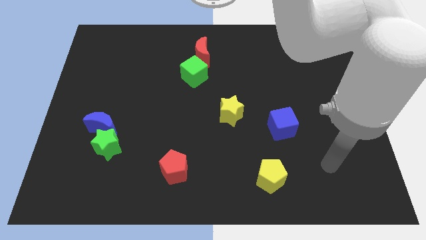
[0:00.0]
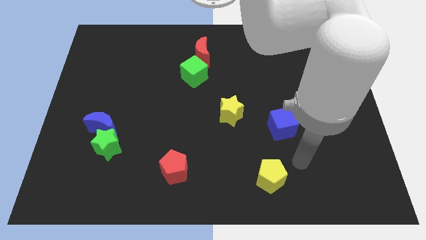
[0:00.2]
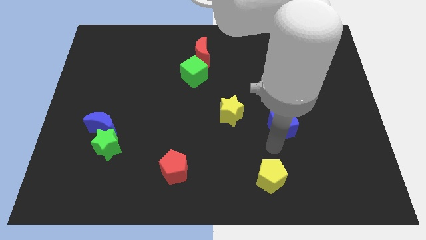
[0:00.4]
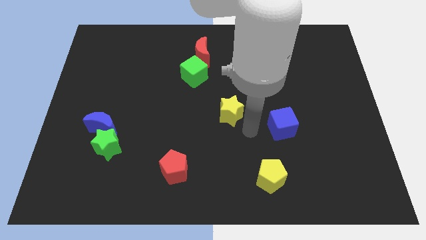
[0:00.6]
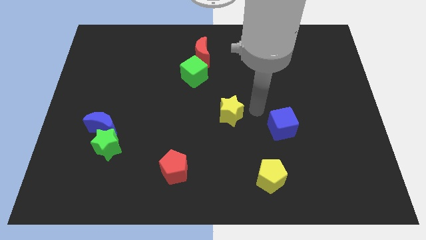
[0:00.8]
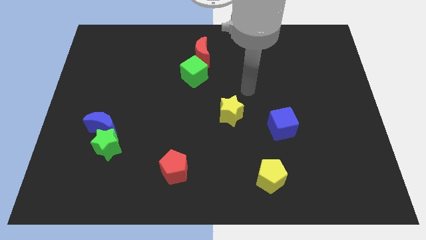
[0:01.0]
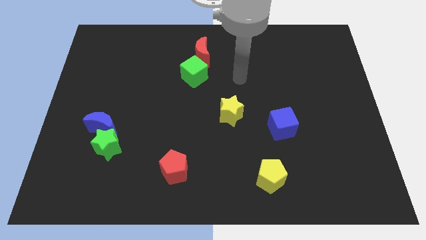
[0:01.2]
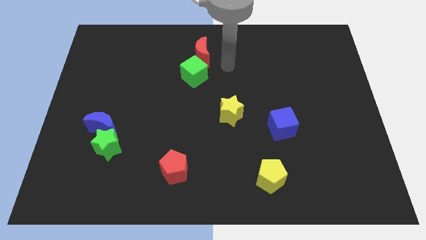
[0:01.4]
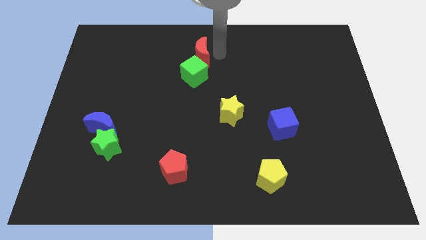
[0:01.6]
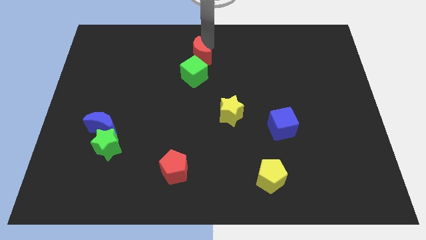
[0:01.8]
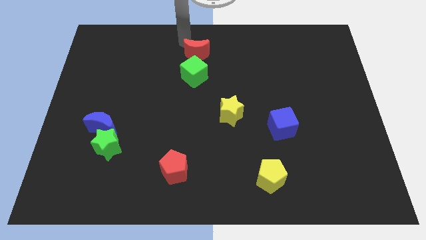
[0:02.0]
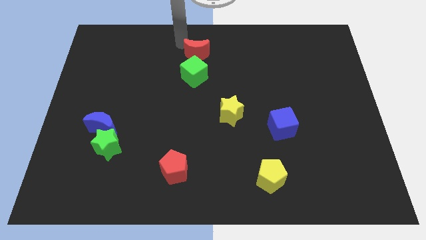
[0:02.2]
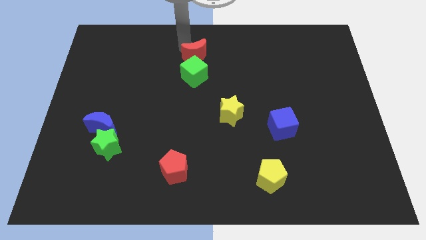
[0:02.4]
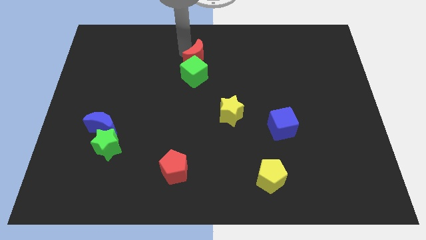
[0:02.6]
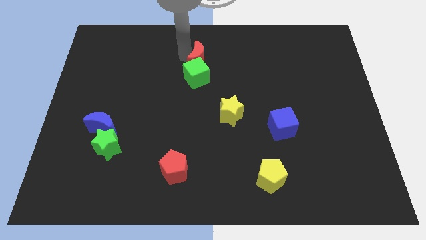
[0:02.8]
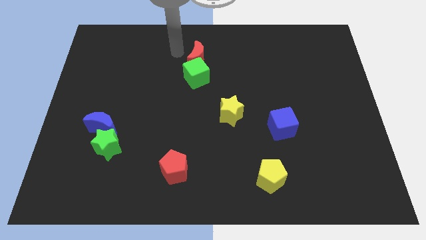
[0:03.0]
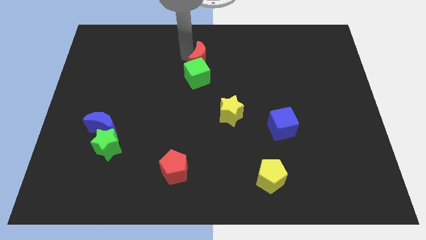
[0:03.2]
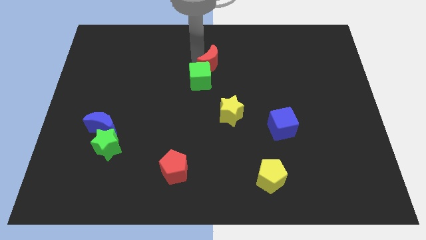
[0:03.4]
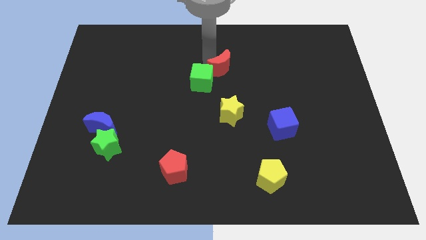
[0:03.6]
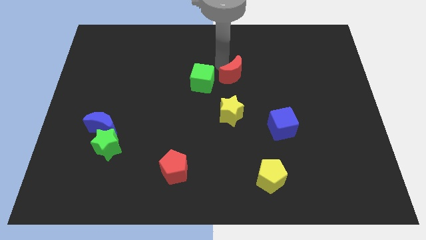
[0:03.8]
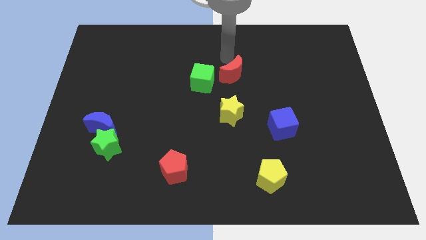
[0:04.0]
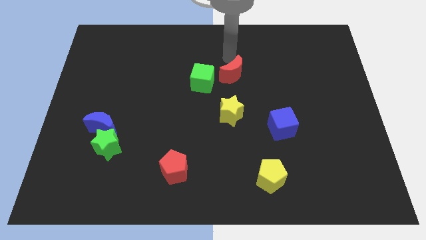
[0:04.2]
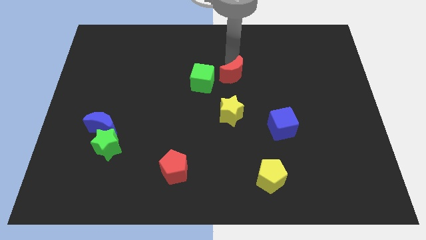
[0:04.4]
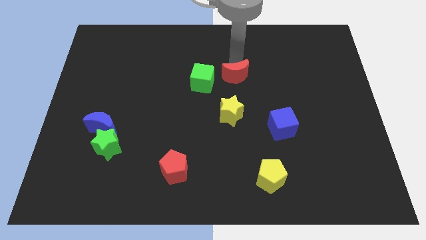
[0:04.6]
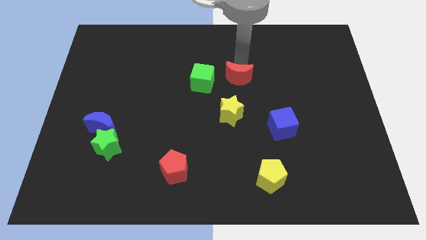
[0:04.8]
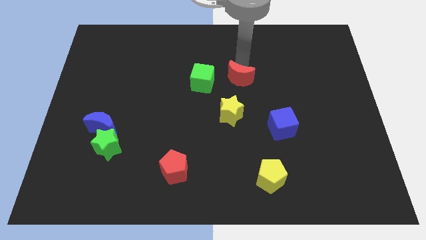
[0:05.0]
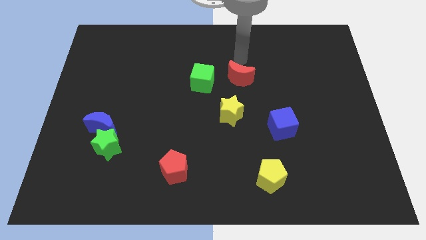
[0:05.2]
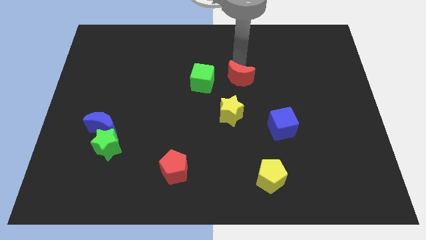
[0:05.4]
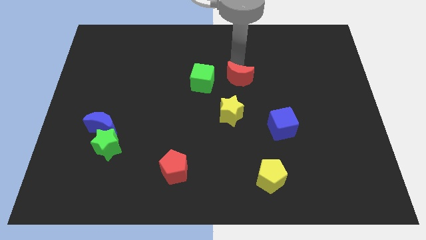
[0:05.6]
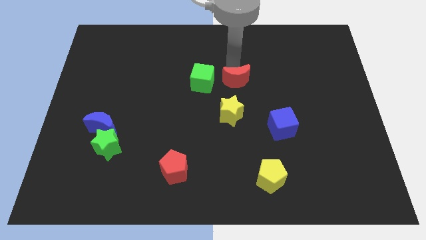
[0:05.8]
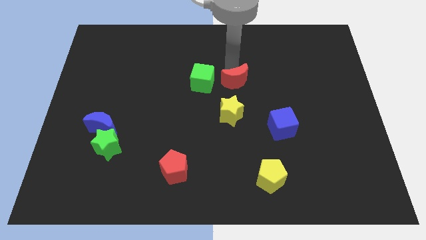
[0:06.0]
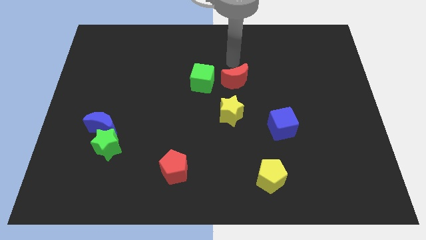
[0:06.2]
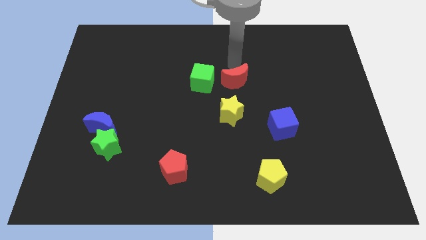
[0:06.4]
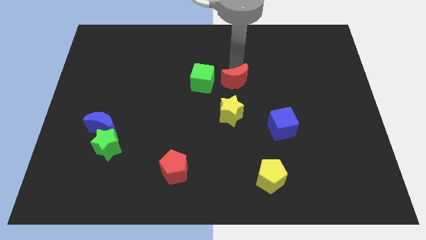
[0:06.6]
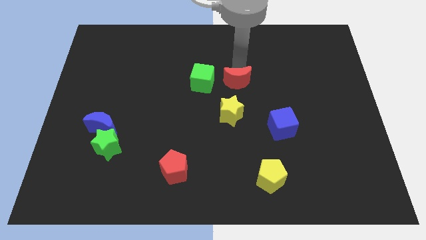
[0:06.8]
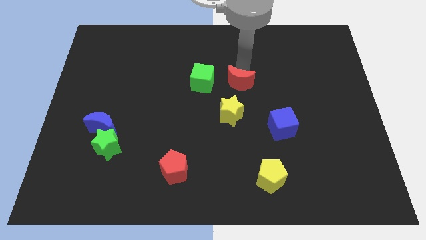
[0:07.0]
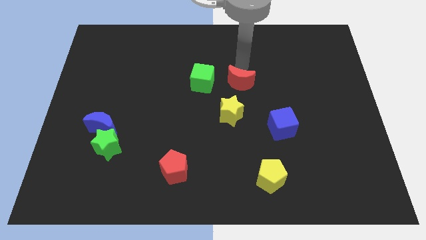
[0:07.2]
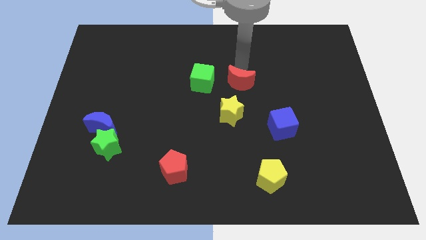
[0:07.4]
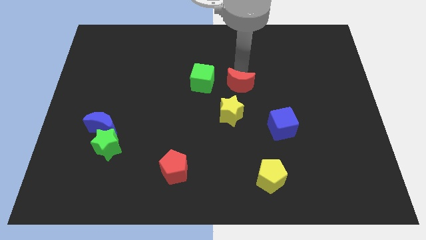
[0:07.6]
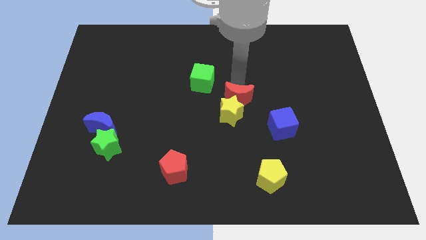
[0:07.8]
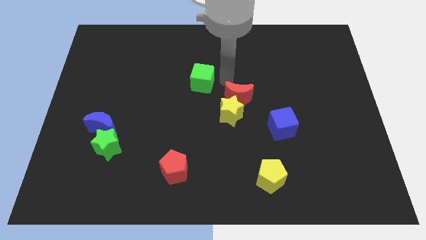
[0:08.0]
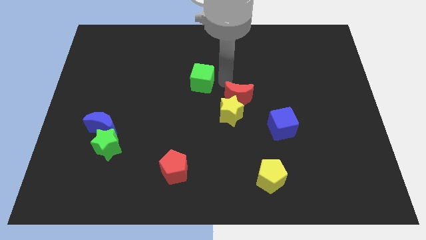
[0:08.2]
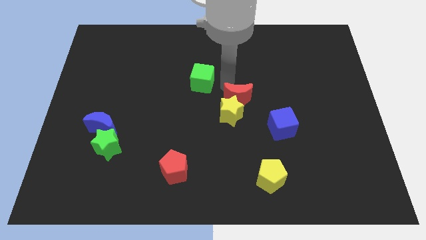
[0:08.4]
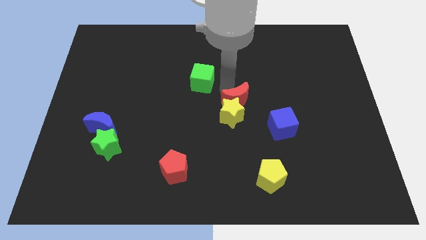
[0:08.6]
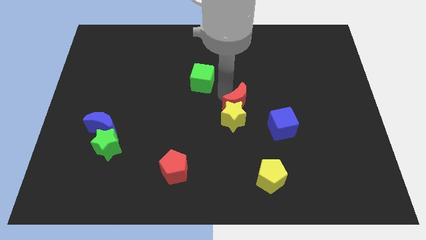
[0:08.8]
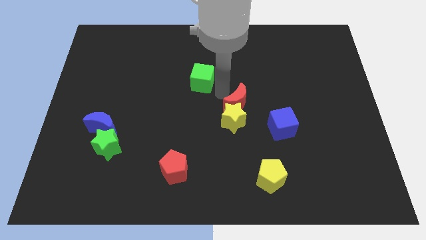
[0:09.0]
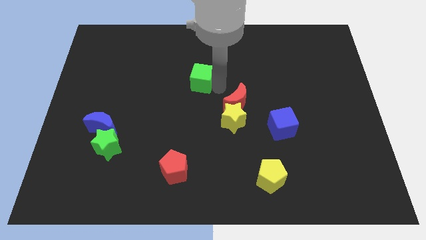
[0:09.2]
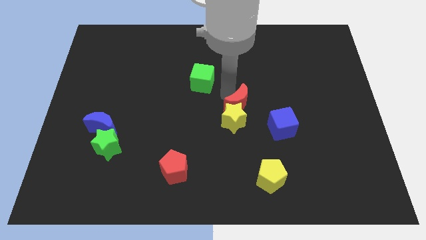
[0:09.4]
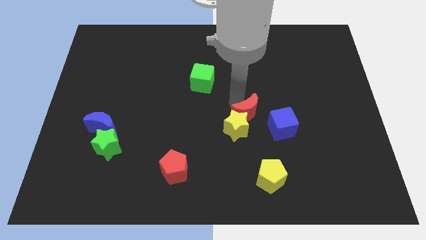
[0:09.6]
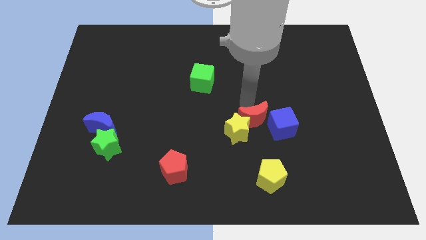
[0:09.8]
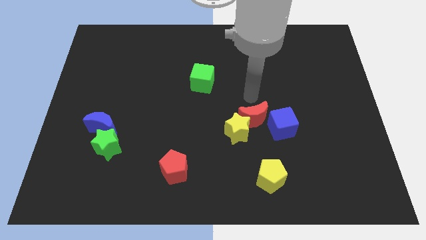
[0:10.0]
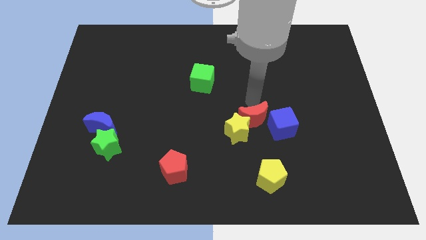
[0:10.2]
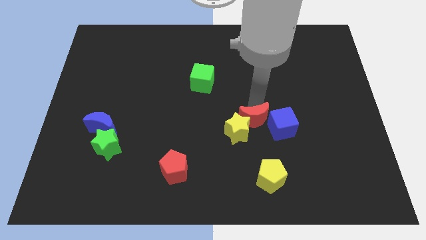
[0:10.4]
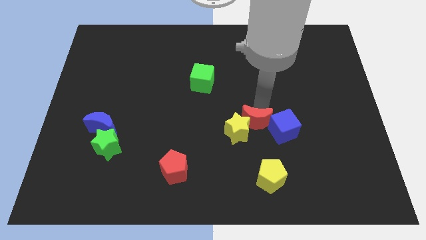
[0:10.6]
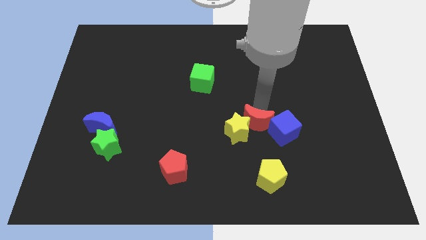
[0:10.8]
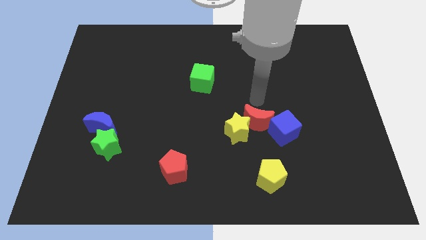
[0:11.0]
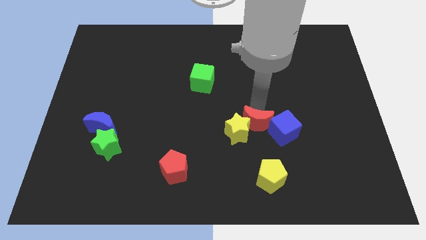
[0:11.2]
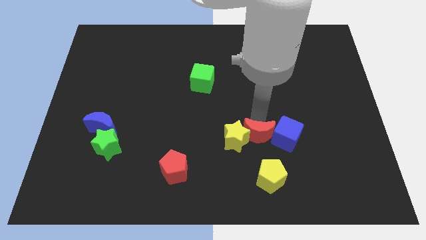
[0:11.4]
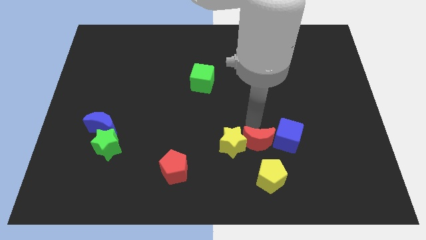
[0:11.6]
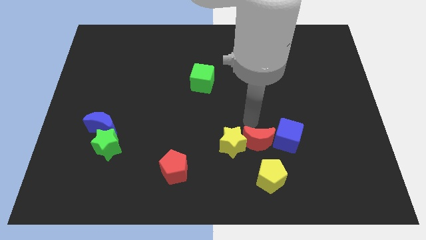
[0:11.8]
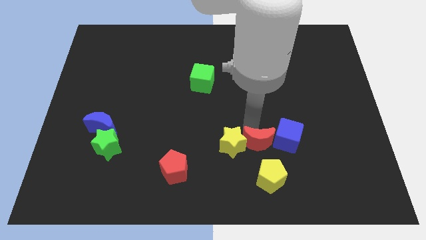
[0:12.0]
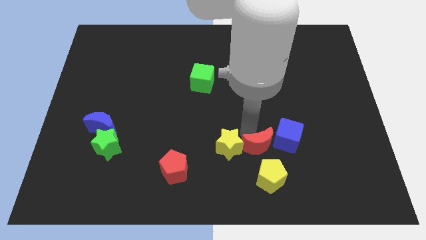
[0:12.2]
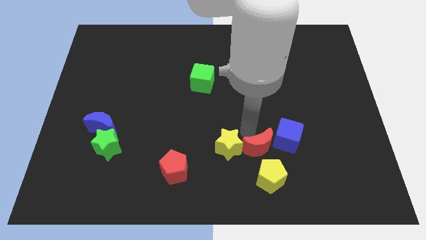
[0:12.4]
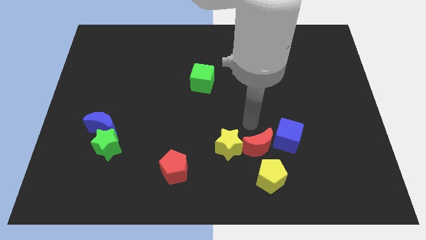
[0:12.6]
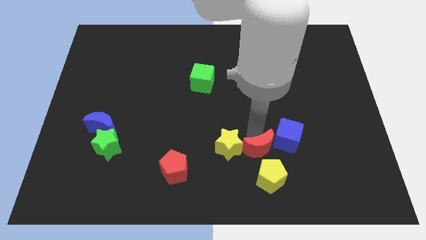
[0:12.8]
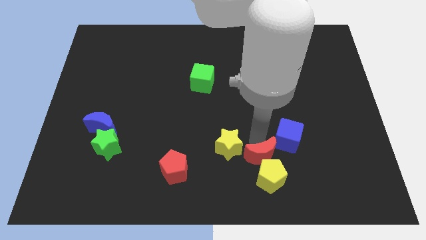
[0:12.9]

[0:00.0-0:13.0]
put the red moon towards the yellow pentagon
